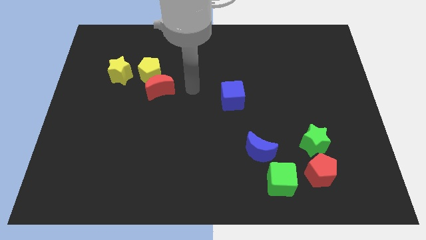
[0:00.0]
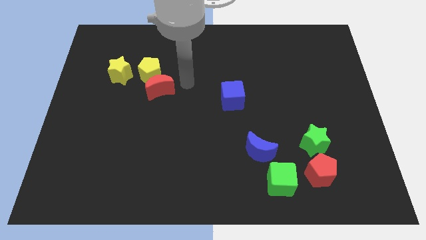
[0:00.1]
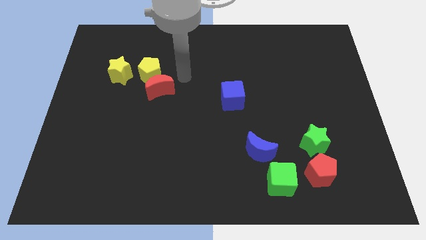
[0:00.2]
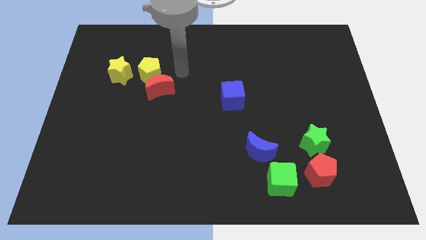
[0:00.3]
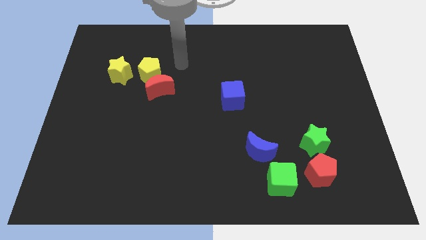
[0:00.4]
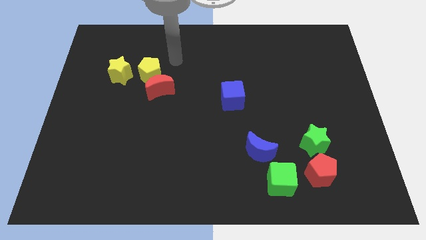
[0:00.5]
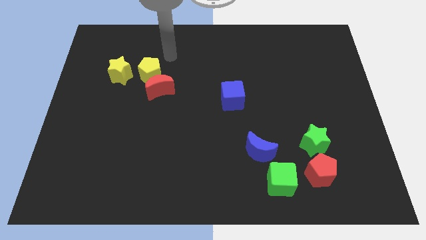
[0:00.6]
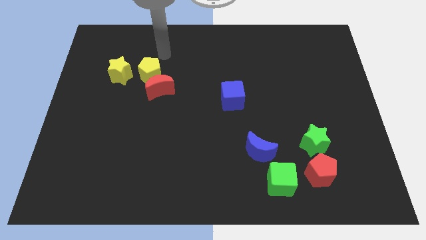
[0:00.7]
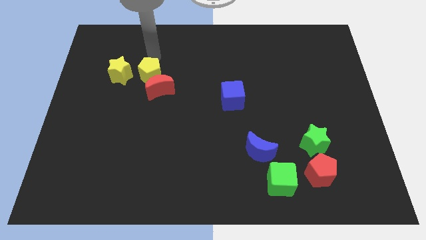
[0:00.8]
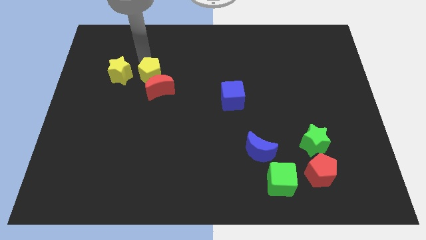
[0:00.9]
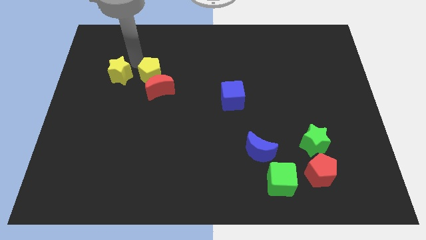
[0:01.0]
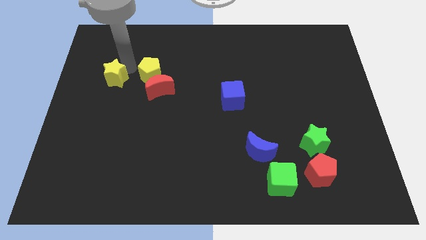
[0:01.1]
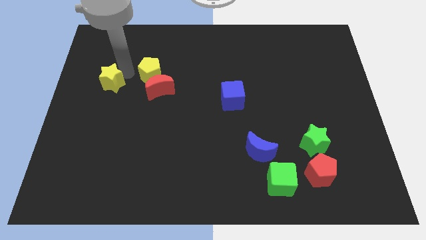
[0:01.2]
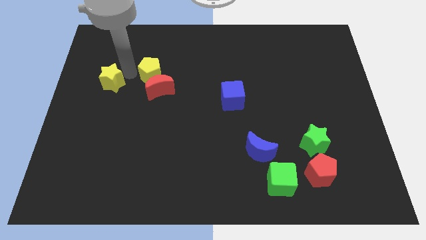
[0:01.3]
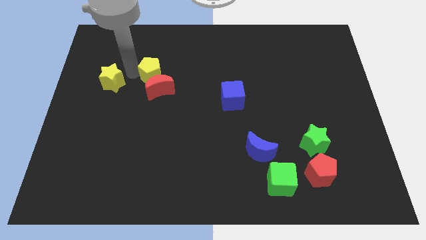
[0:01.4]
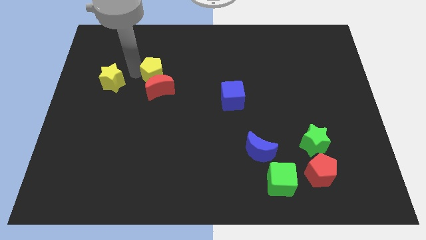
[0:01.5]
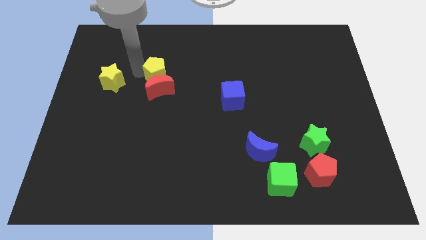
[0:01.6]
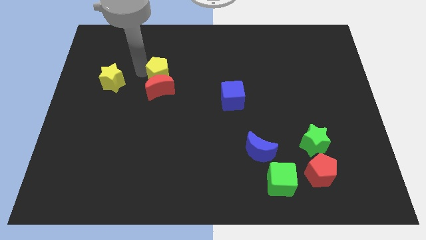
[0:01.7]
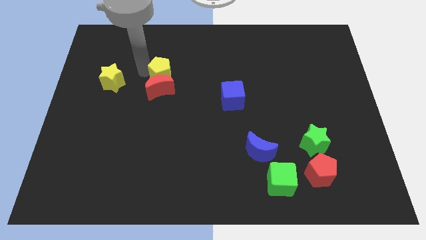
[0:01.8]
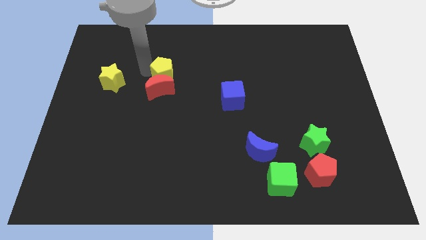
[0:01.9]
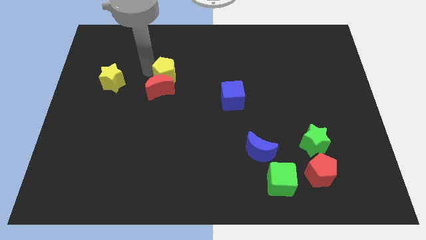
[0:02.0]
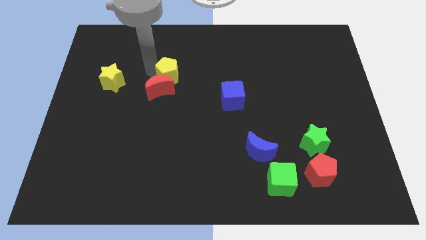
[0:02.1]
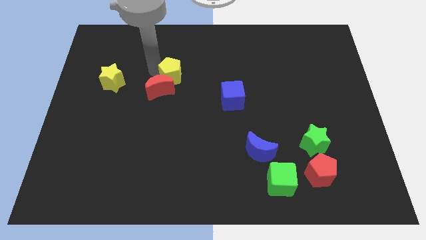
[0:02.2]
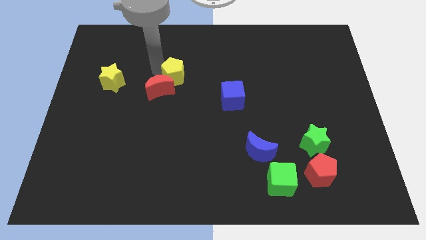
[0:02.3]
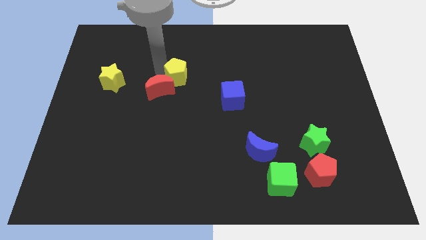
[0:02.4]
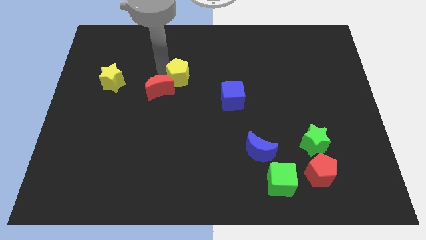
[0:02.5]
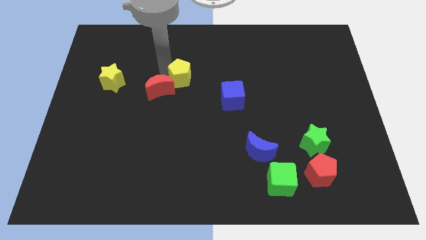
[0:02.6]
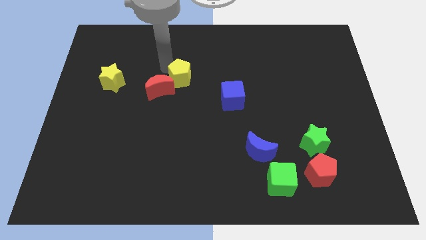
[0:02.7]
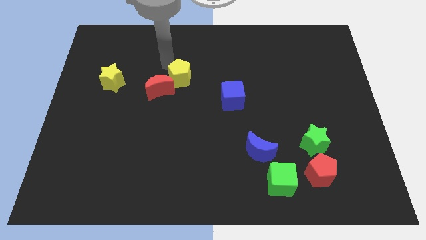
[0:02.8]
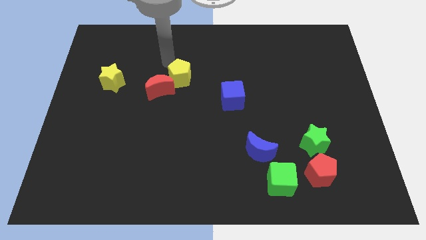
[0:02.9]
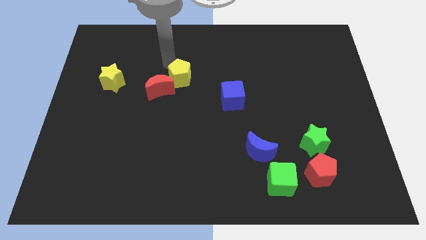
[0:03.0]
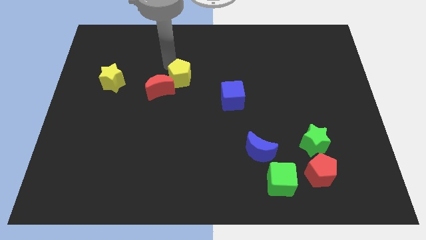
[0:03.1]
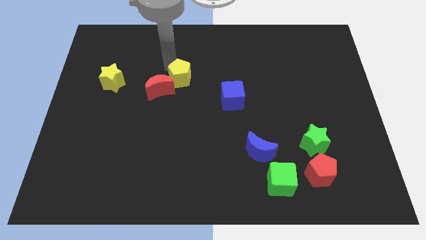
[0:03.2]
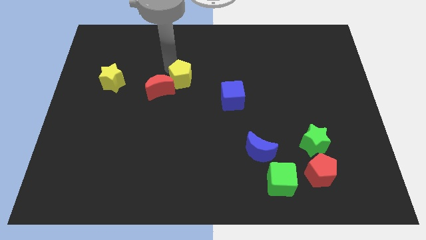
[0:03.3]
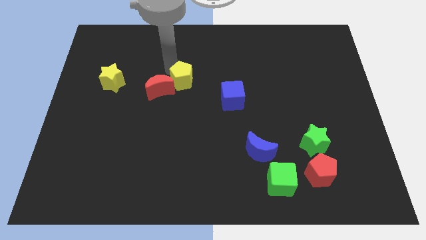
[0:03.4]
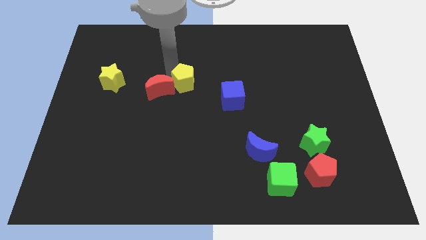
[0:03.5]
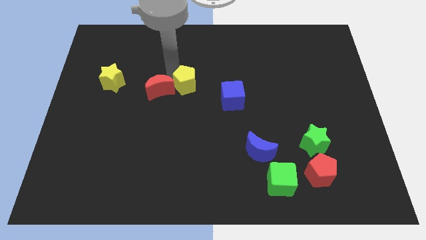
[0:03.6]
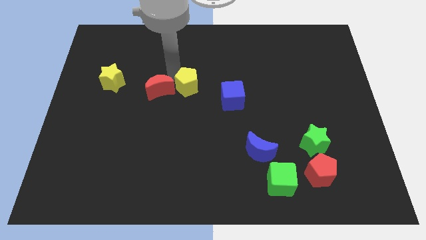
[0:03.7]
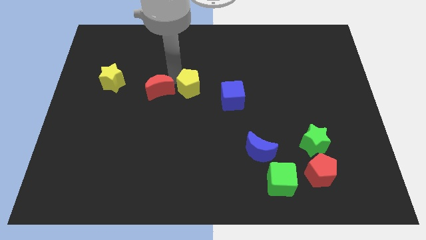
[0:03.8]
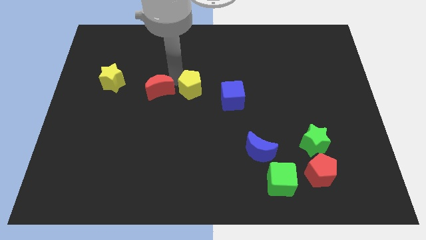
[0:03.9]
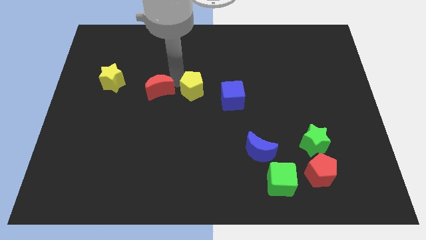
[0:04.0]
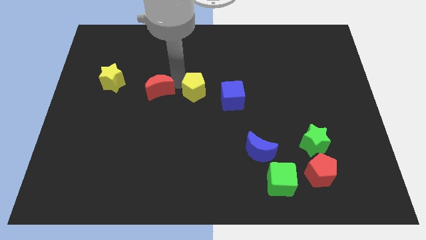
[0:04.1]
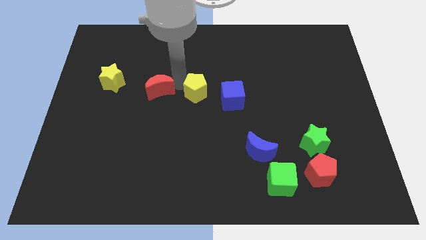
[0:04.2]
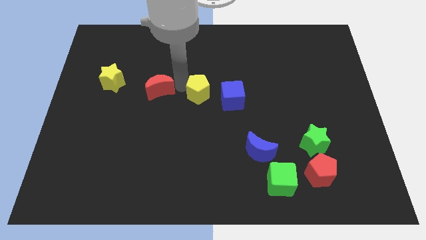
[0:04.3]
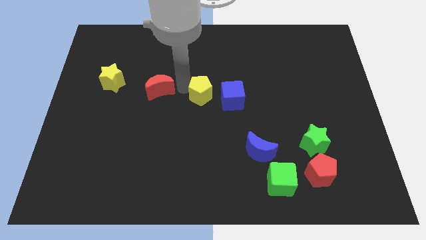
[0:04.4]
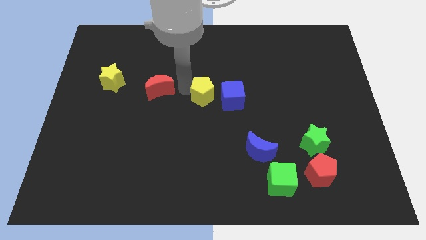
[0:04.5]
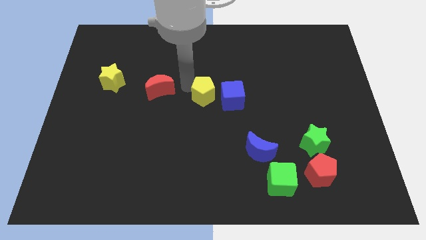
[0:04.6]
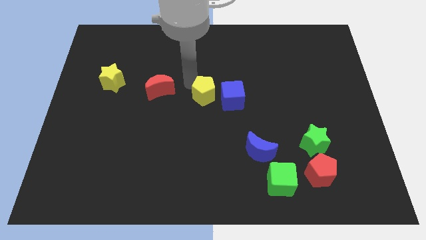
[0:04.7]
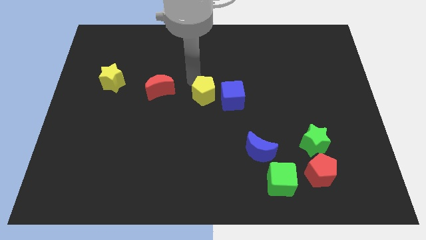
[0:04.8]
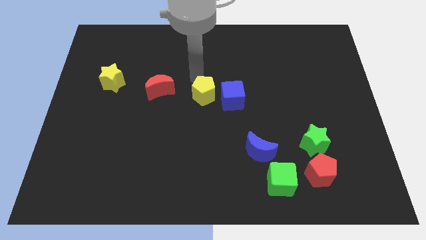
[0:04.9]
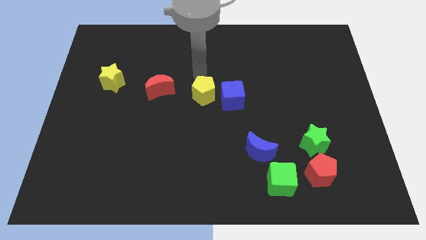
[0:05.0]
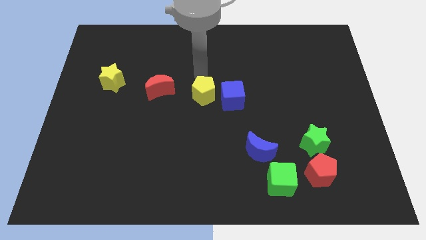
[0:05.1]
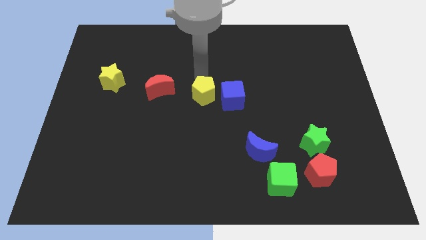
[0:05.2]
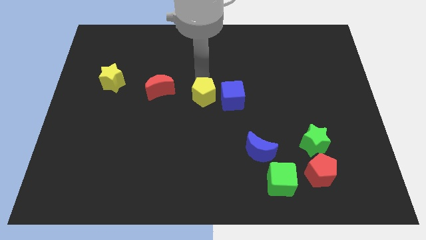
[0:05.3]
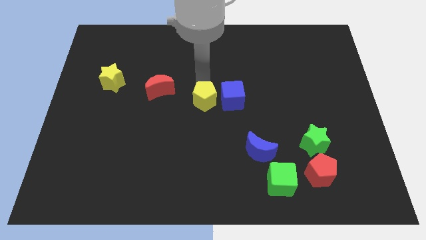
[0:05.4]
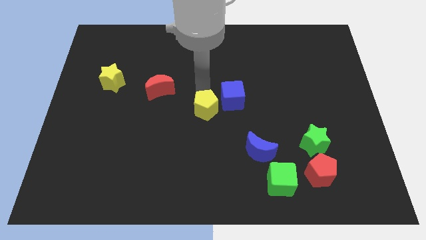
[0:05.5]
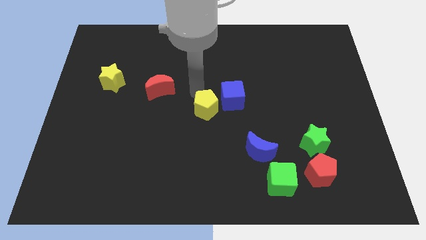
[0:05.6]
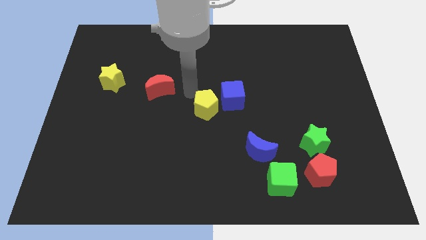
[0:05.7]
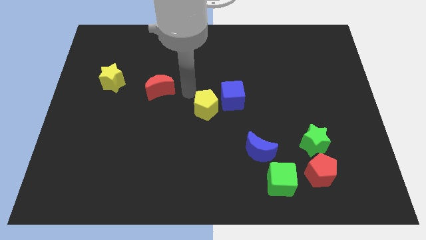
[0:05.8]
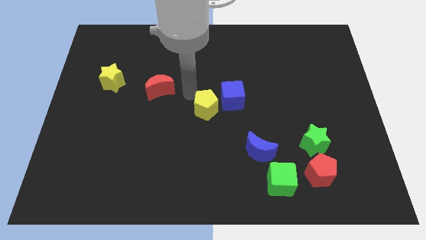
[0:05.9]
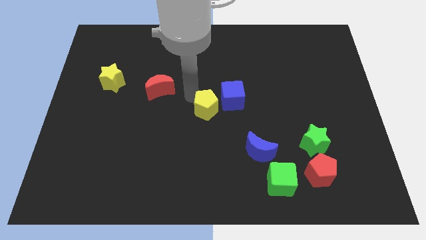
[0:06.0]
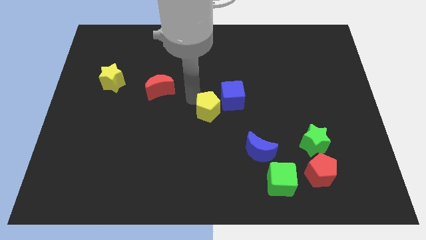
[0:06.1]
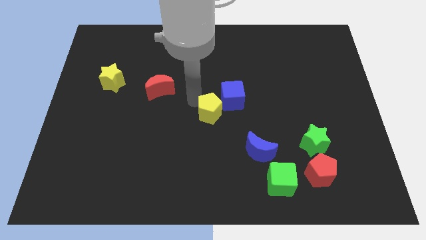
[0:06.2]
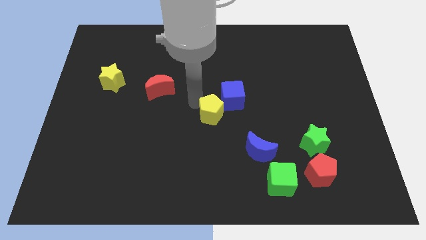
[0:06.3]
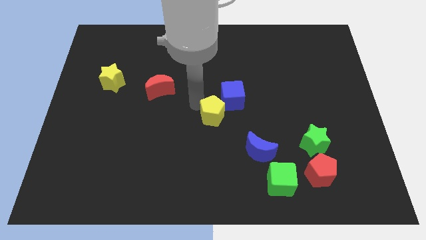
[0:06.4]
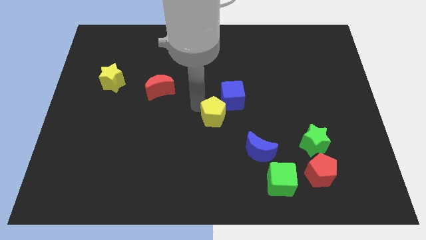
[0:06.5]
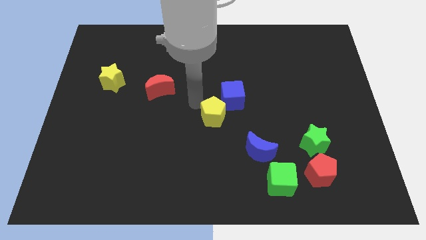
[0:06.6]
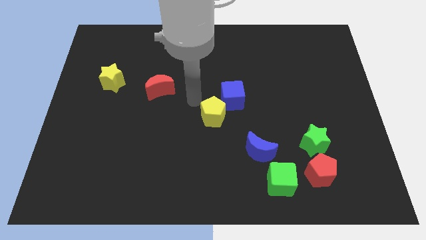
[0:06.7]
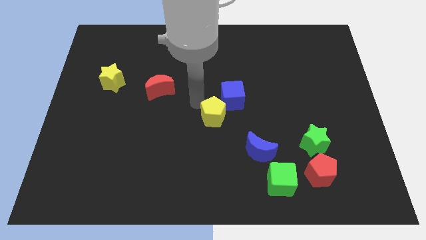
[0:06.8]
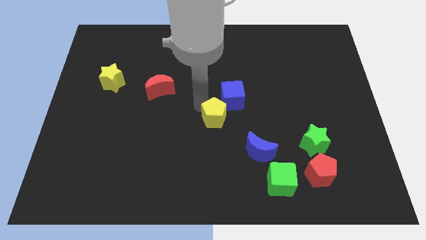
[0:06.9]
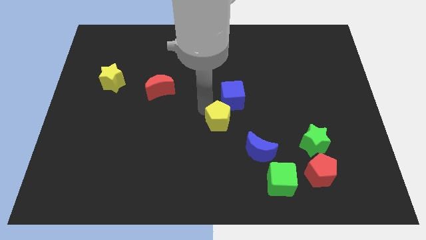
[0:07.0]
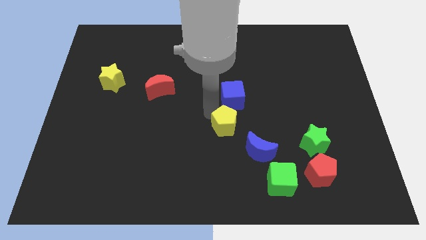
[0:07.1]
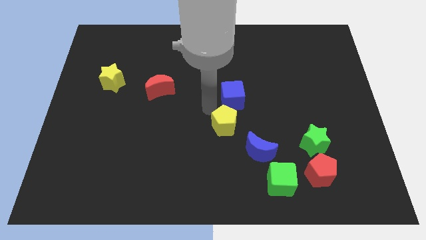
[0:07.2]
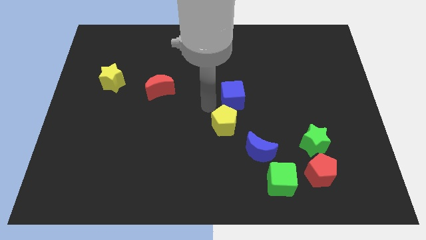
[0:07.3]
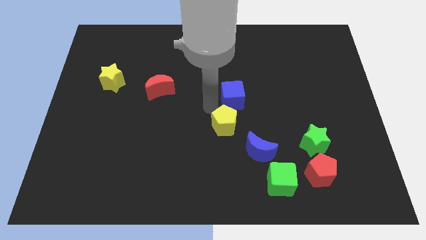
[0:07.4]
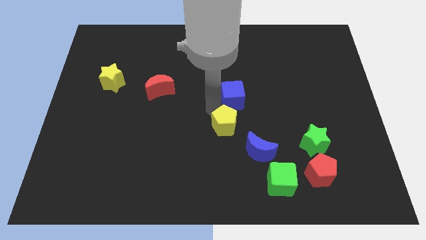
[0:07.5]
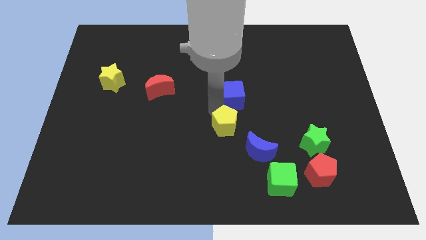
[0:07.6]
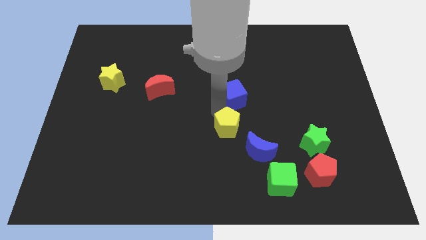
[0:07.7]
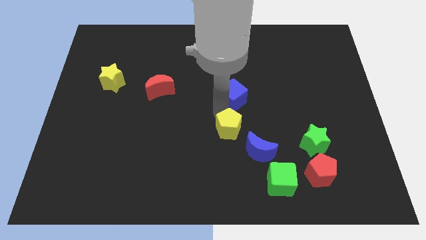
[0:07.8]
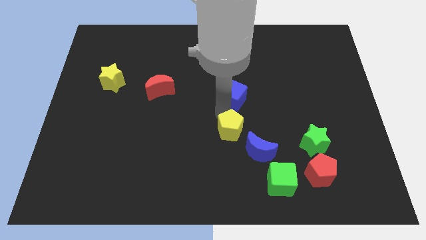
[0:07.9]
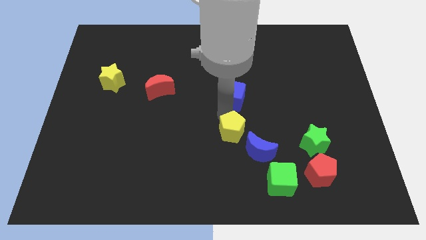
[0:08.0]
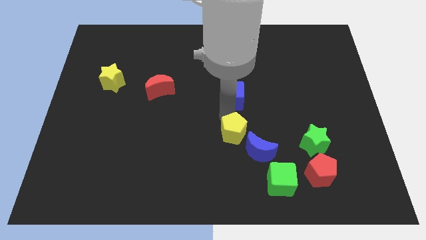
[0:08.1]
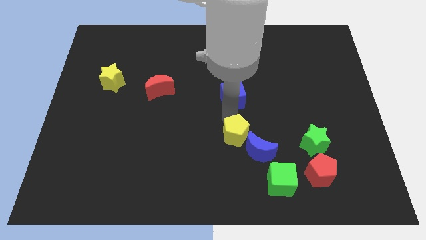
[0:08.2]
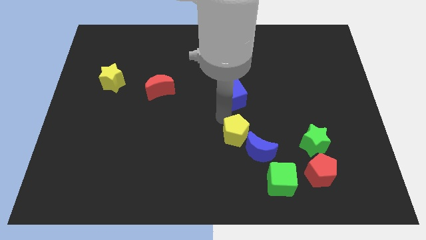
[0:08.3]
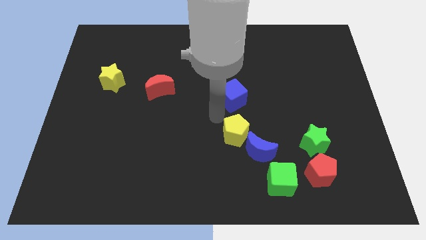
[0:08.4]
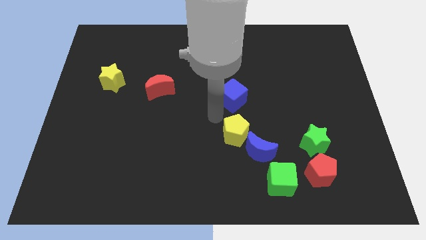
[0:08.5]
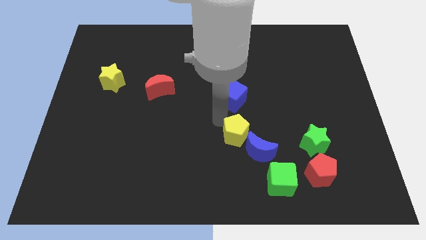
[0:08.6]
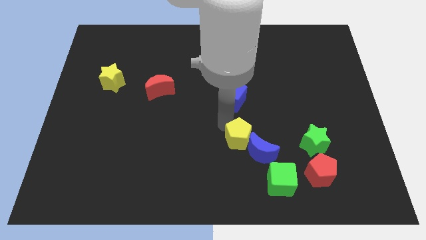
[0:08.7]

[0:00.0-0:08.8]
move the yellow pentagon next to the blue moon
